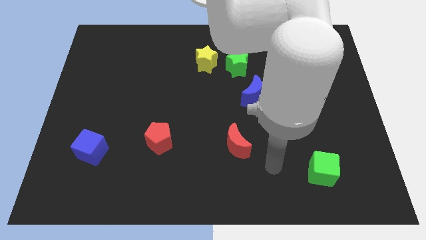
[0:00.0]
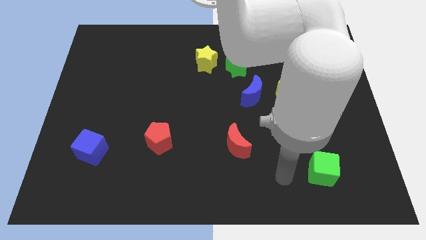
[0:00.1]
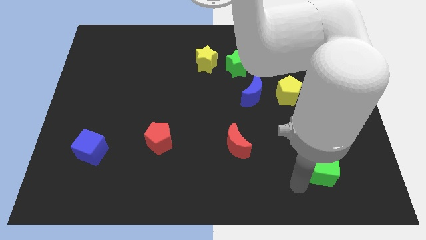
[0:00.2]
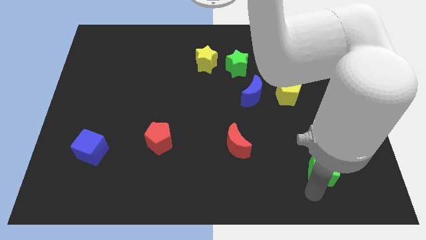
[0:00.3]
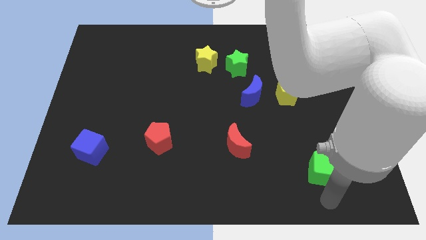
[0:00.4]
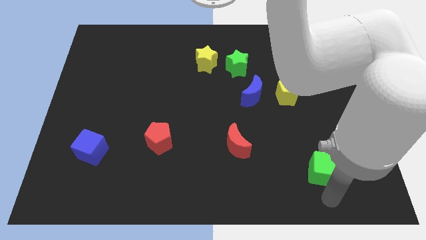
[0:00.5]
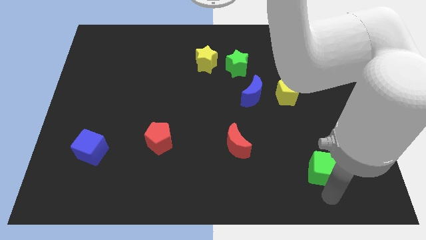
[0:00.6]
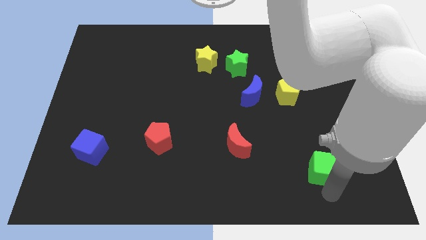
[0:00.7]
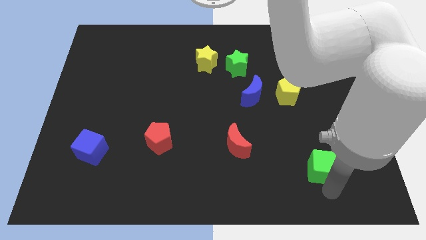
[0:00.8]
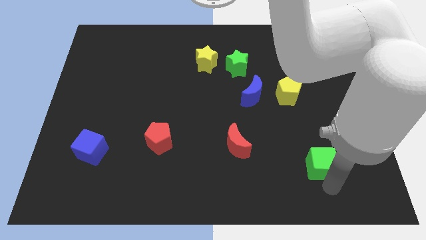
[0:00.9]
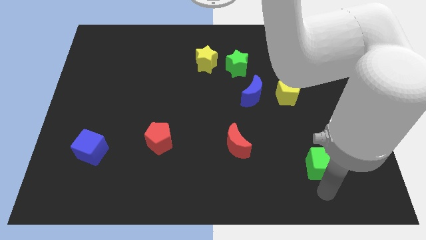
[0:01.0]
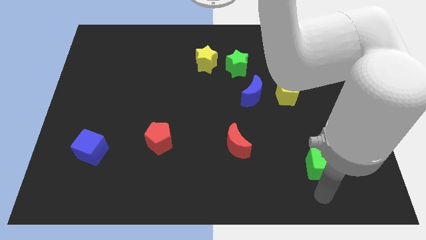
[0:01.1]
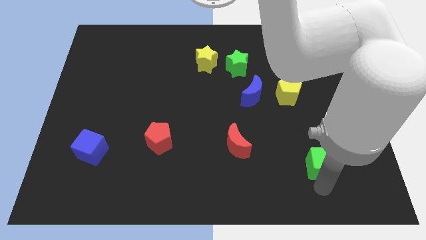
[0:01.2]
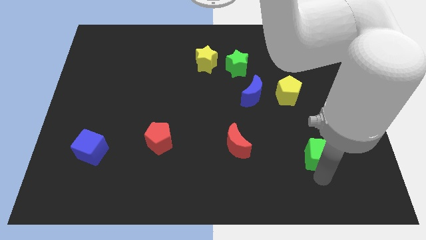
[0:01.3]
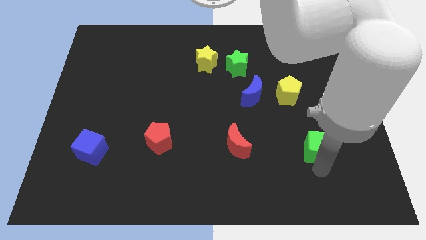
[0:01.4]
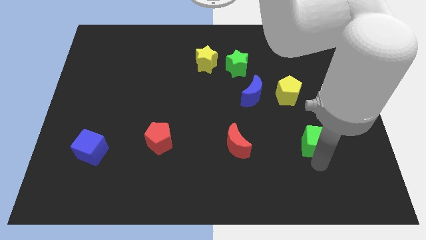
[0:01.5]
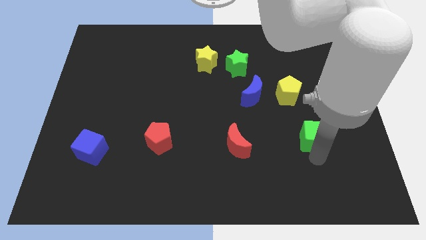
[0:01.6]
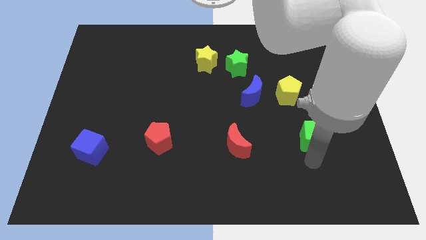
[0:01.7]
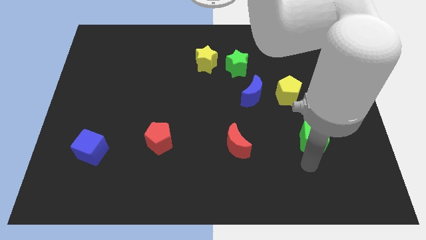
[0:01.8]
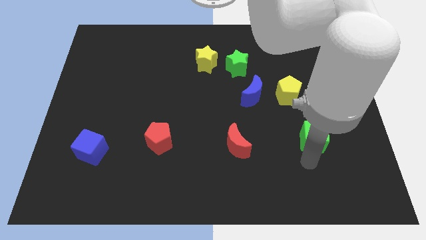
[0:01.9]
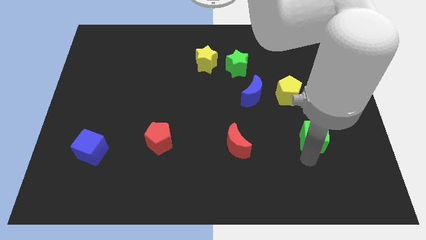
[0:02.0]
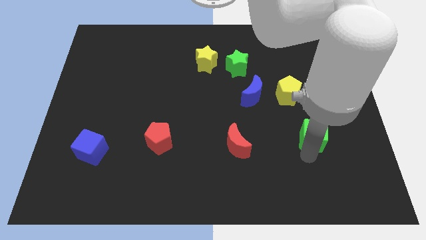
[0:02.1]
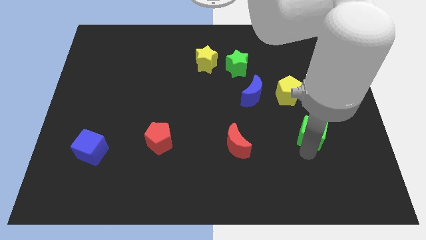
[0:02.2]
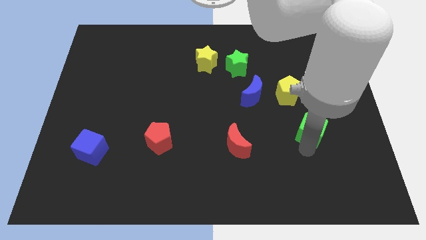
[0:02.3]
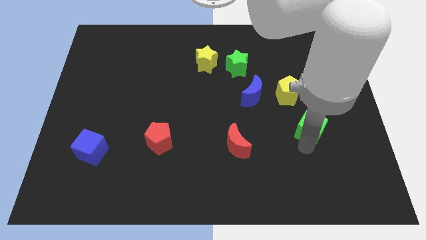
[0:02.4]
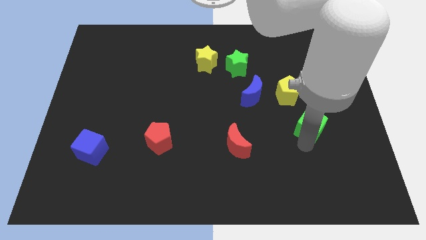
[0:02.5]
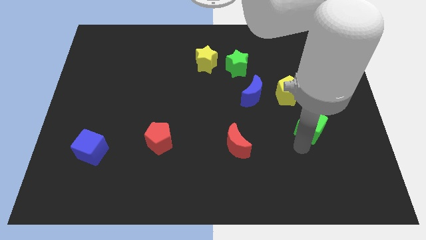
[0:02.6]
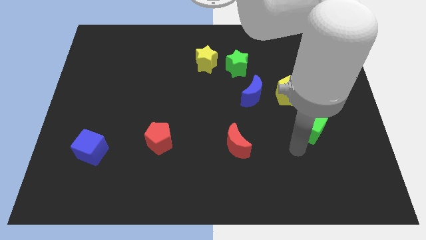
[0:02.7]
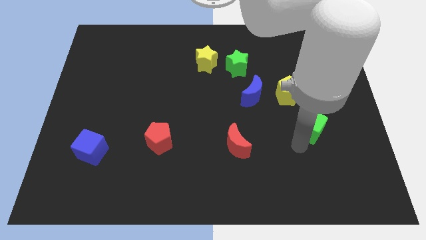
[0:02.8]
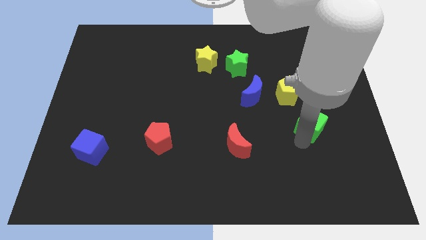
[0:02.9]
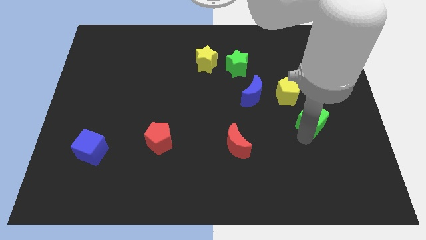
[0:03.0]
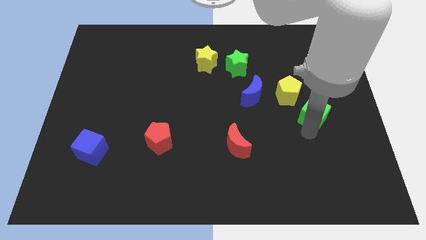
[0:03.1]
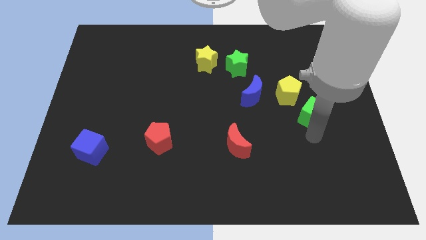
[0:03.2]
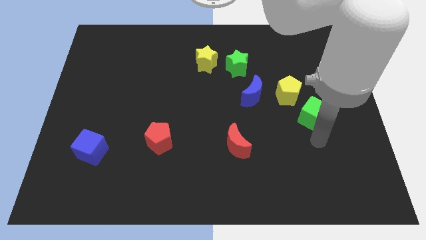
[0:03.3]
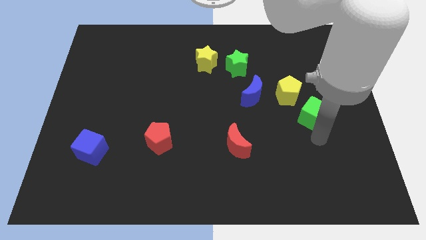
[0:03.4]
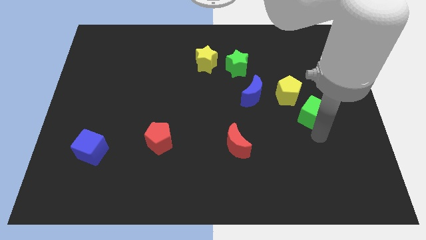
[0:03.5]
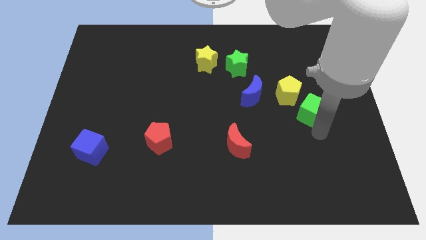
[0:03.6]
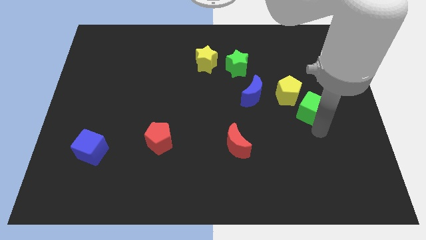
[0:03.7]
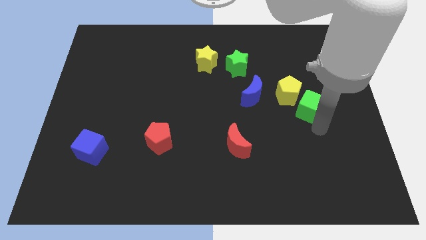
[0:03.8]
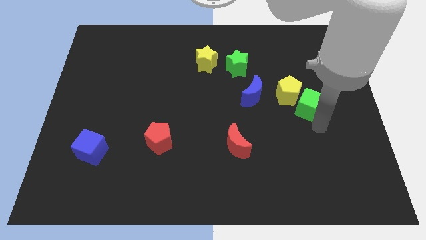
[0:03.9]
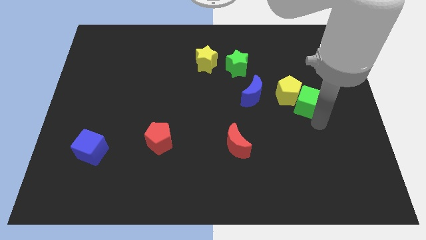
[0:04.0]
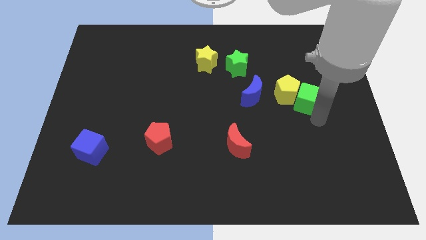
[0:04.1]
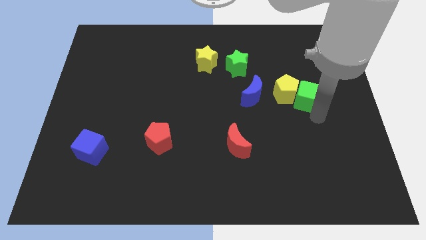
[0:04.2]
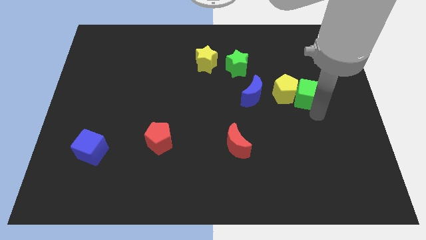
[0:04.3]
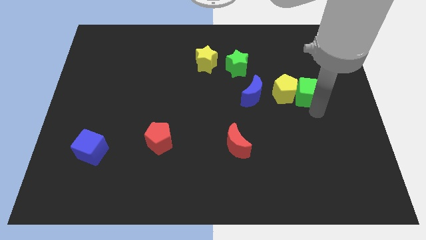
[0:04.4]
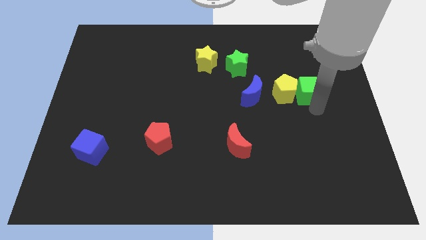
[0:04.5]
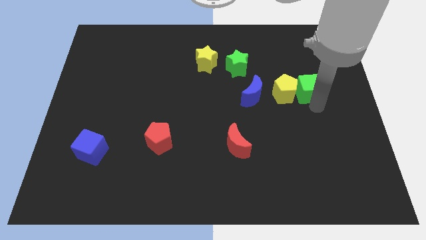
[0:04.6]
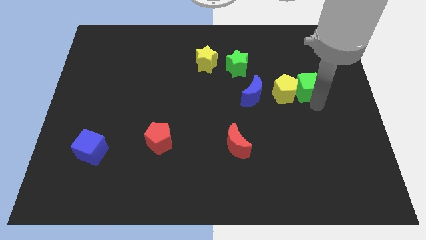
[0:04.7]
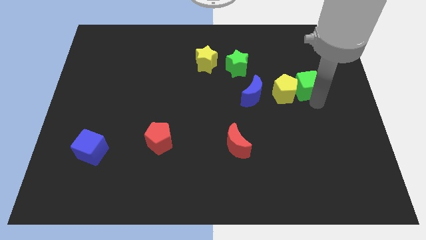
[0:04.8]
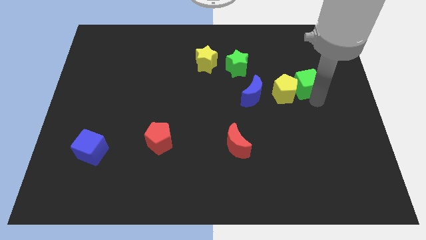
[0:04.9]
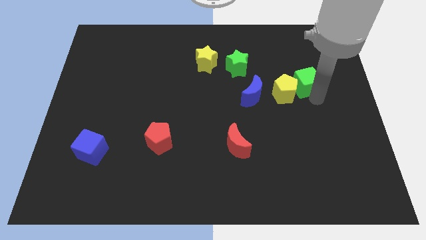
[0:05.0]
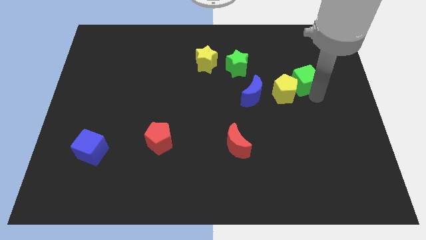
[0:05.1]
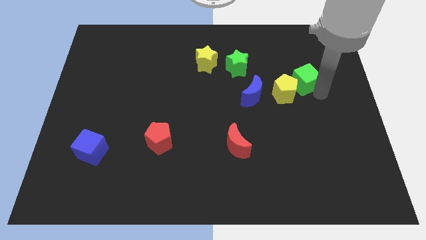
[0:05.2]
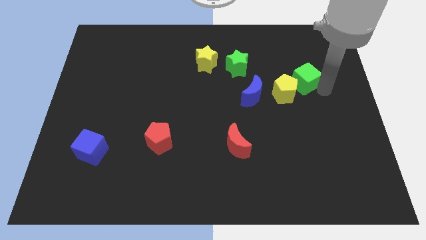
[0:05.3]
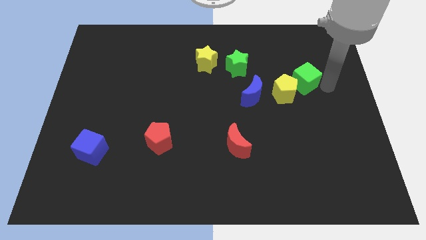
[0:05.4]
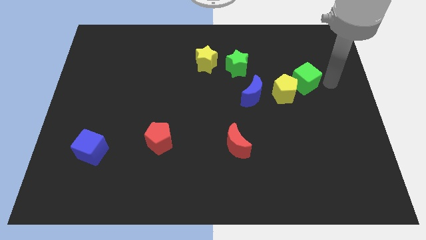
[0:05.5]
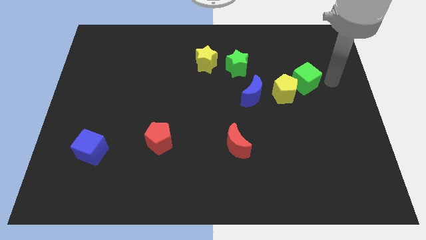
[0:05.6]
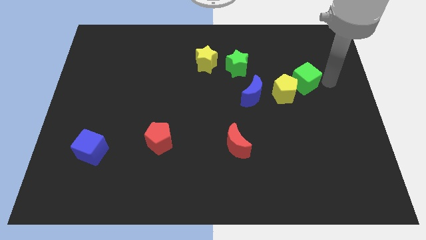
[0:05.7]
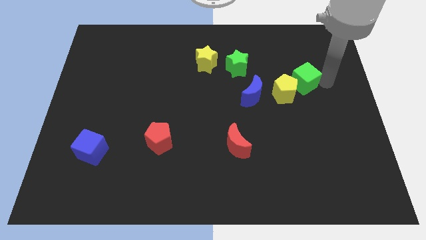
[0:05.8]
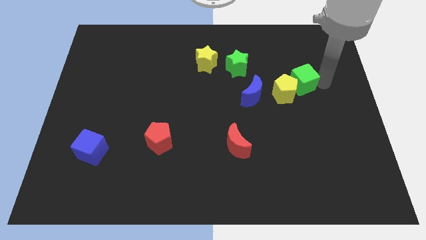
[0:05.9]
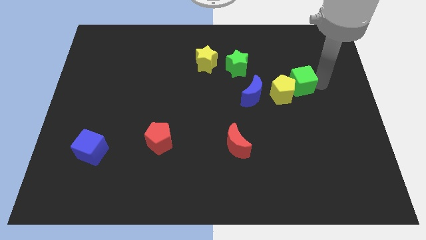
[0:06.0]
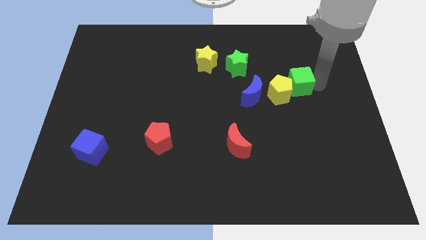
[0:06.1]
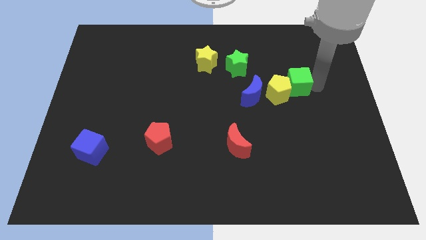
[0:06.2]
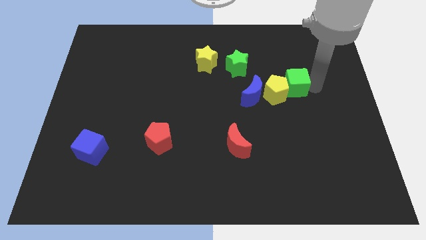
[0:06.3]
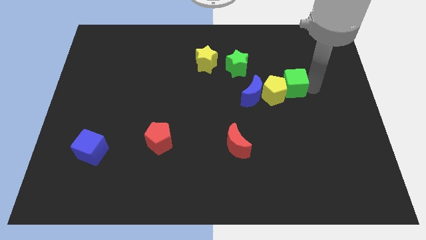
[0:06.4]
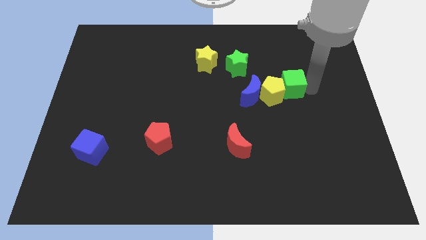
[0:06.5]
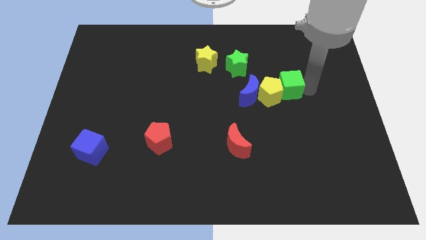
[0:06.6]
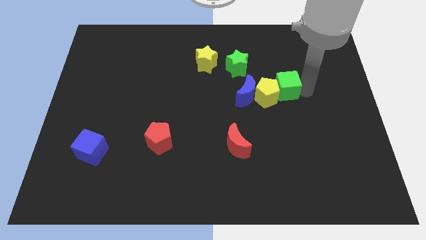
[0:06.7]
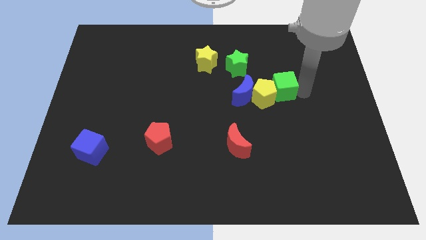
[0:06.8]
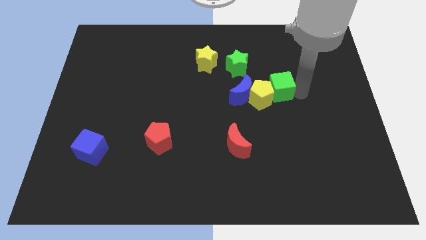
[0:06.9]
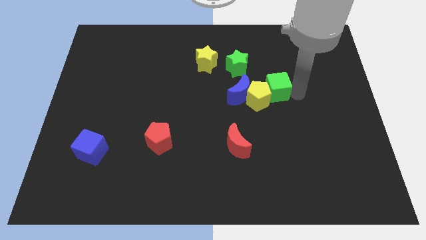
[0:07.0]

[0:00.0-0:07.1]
move the green cube to the bottom right side of the green star

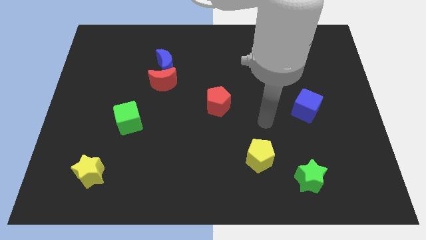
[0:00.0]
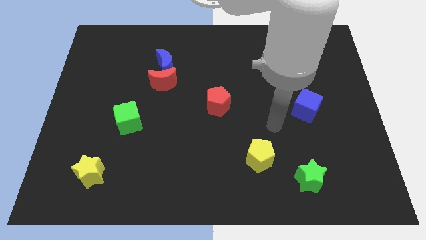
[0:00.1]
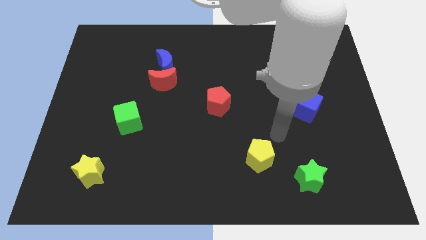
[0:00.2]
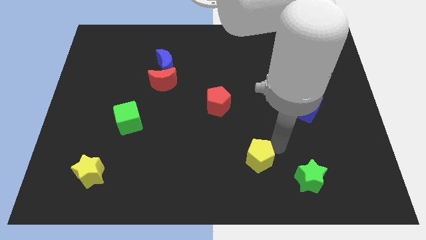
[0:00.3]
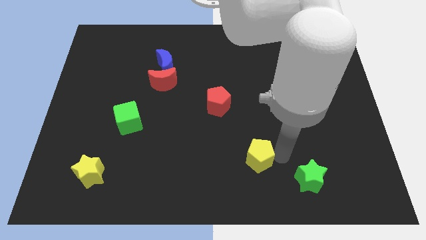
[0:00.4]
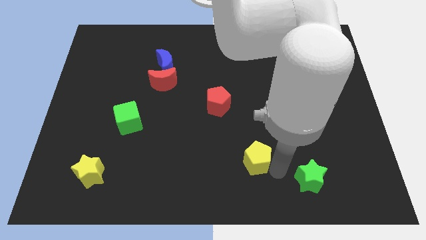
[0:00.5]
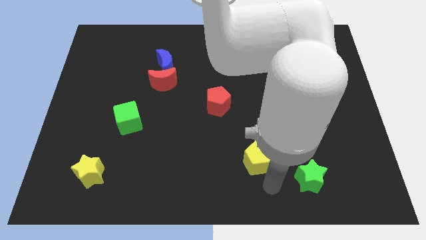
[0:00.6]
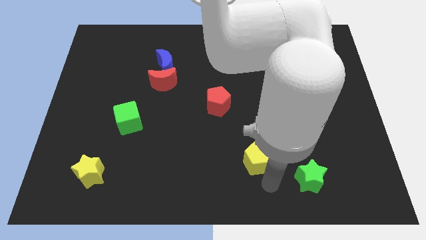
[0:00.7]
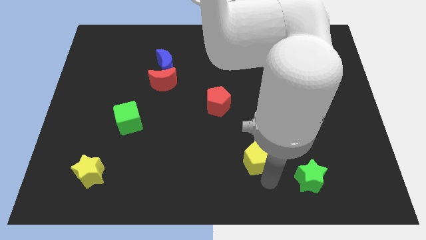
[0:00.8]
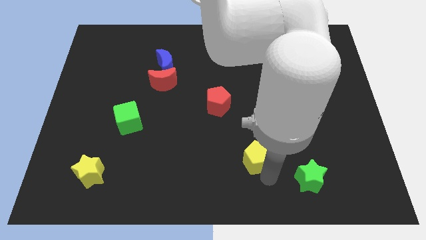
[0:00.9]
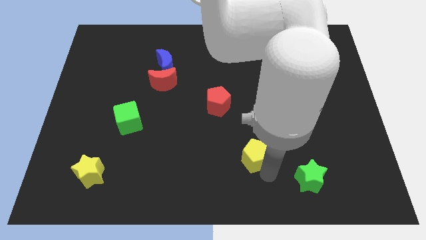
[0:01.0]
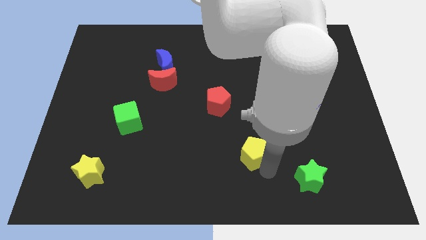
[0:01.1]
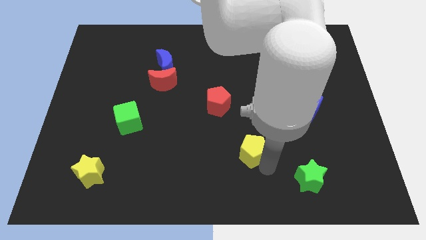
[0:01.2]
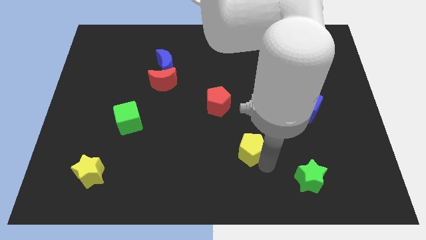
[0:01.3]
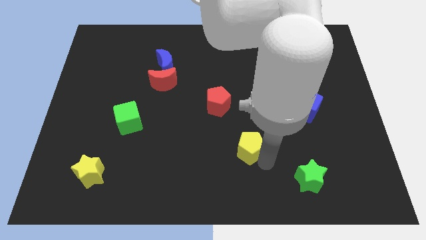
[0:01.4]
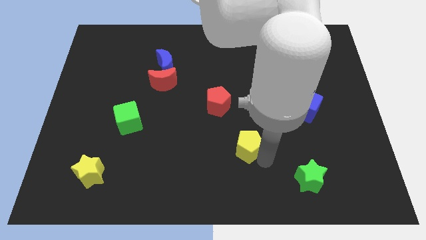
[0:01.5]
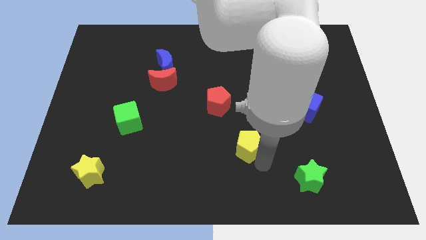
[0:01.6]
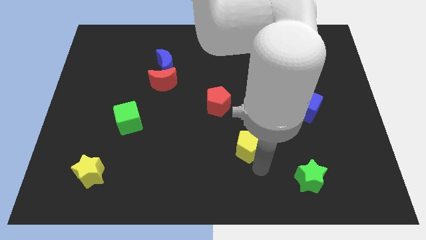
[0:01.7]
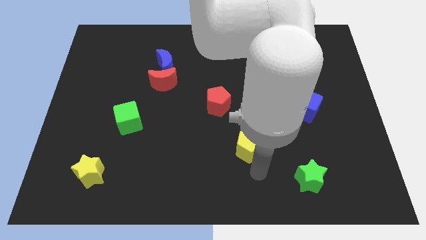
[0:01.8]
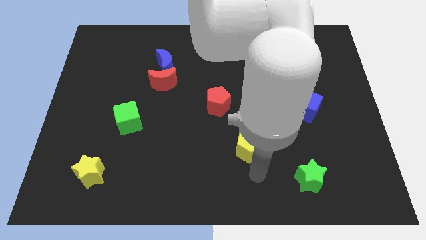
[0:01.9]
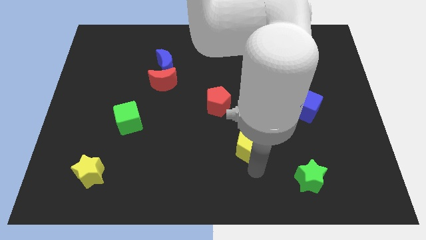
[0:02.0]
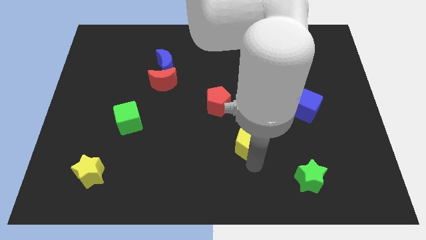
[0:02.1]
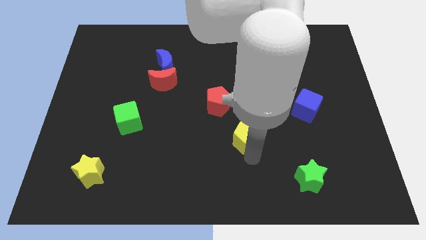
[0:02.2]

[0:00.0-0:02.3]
slide the yellow pentagon diagonally down and to the right of the red pentagon
